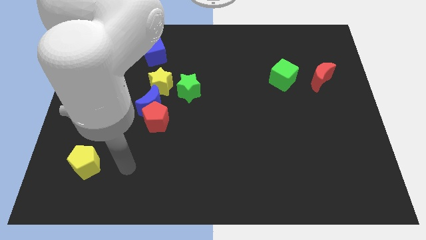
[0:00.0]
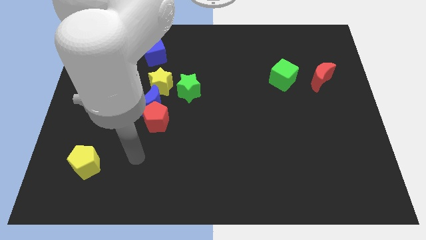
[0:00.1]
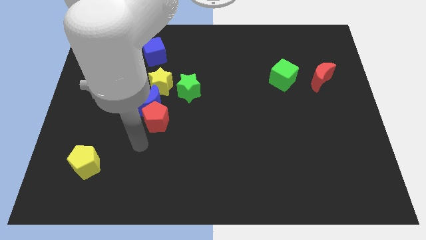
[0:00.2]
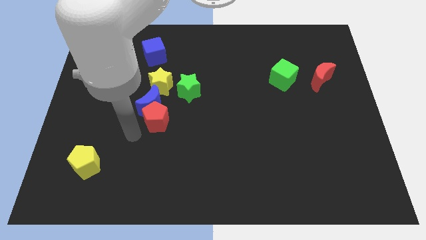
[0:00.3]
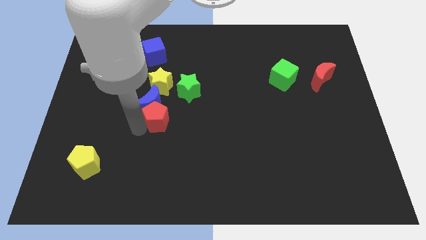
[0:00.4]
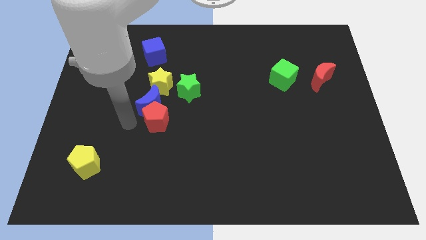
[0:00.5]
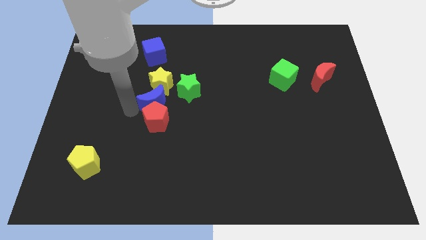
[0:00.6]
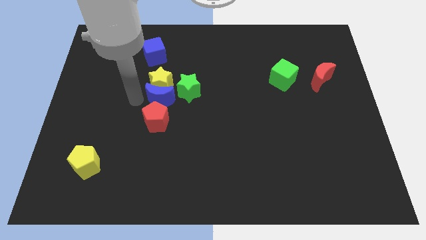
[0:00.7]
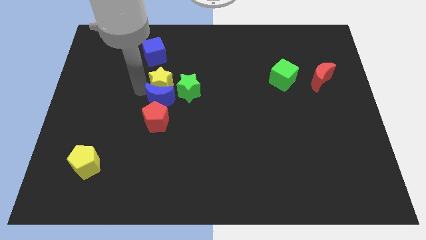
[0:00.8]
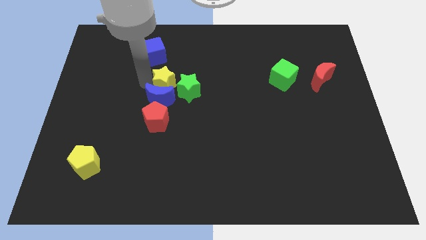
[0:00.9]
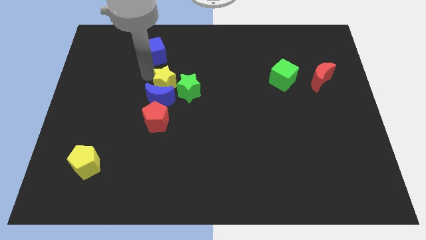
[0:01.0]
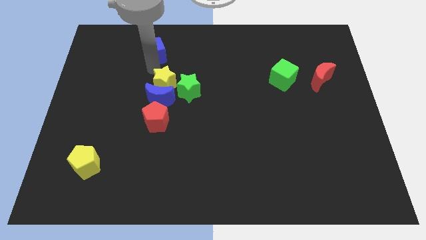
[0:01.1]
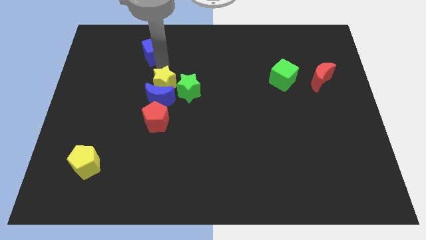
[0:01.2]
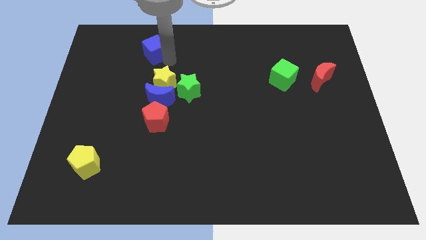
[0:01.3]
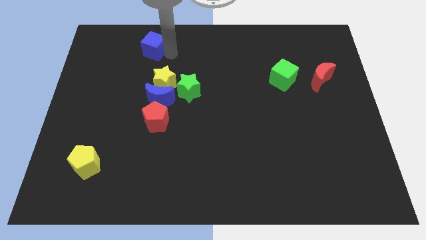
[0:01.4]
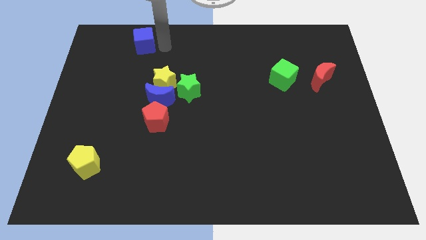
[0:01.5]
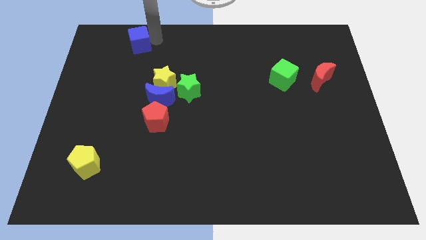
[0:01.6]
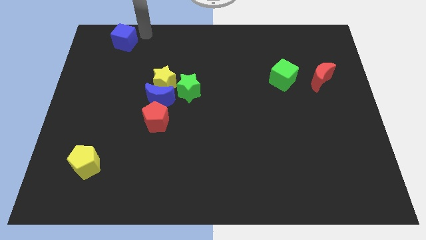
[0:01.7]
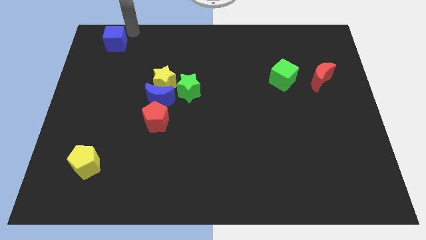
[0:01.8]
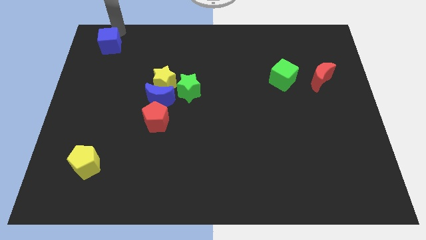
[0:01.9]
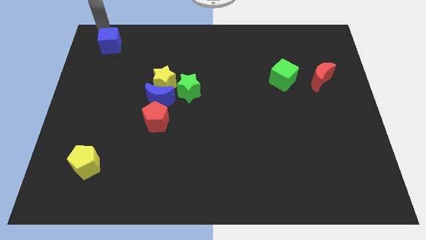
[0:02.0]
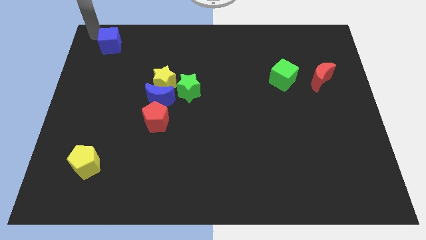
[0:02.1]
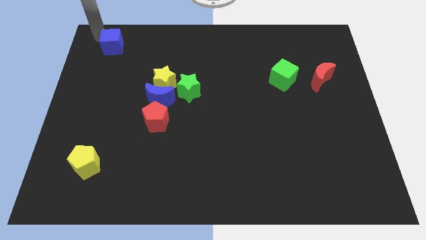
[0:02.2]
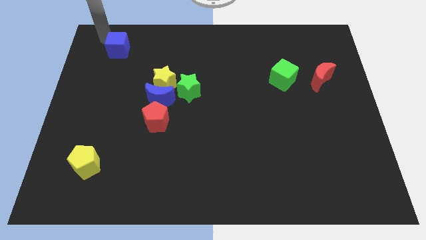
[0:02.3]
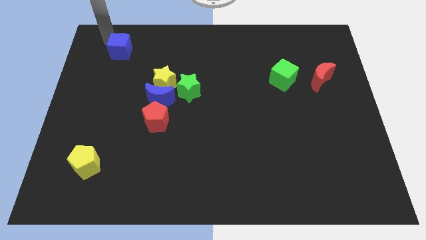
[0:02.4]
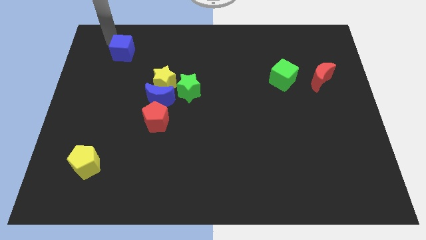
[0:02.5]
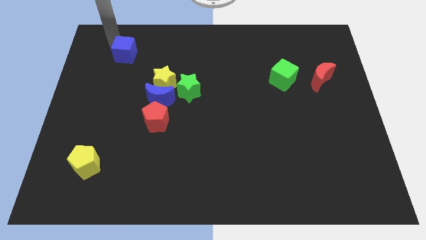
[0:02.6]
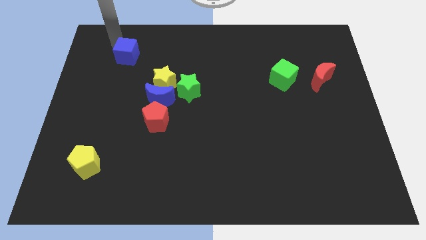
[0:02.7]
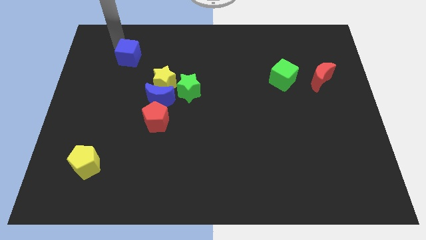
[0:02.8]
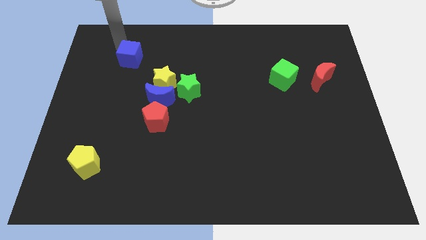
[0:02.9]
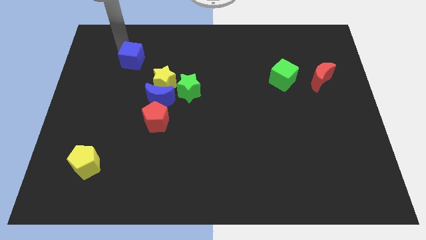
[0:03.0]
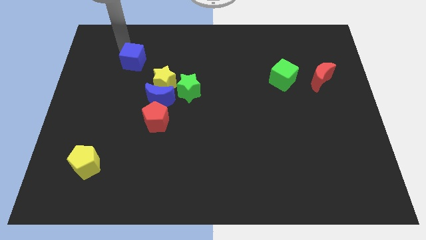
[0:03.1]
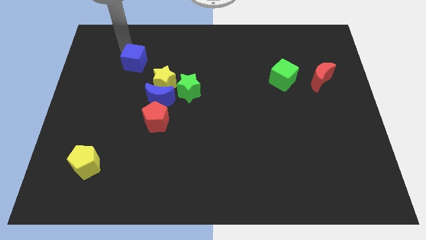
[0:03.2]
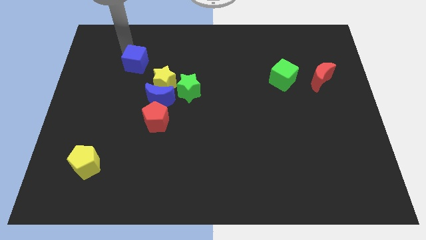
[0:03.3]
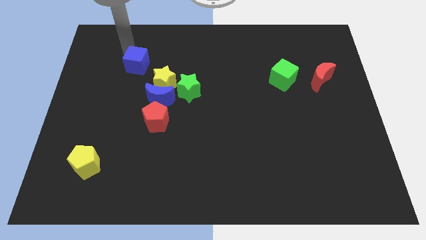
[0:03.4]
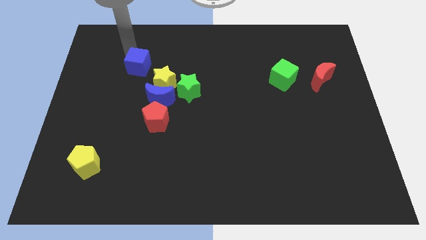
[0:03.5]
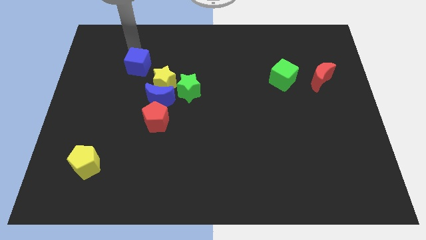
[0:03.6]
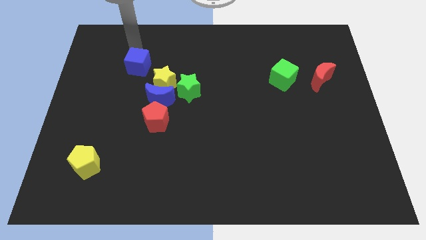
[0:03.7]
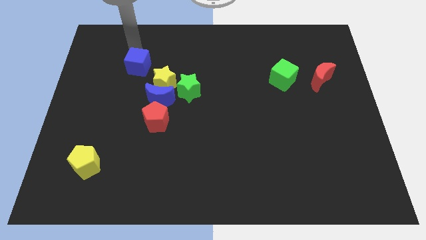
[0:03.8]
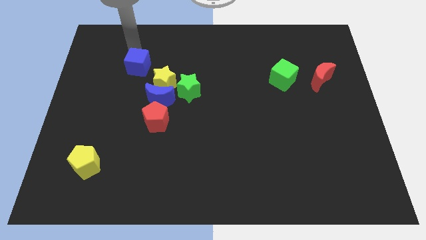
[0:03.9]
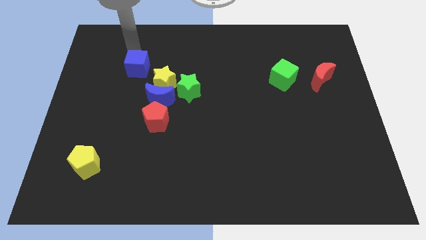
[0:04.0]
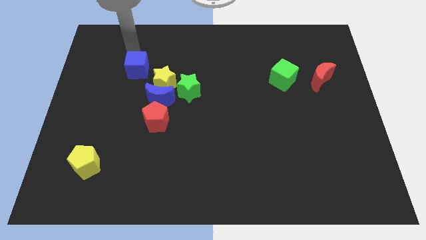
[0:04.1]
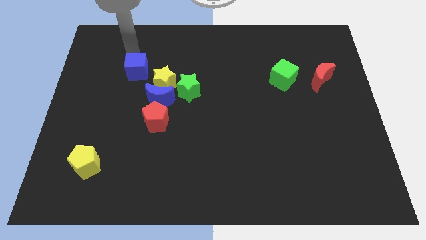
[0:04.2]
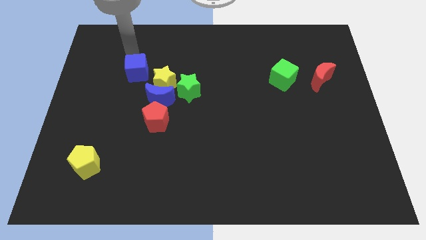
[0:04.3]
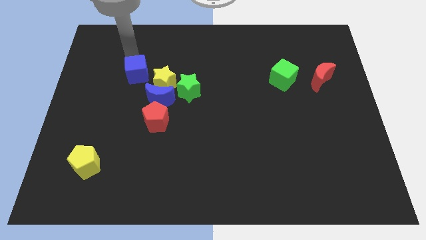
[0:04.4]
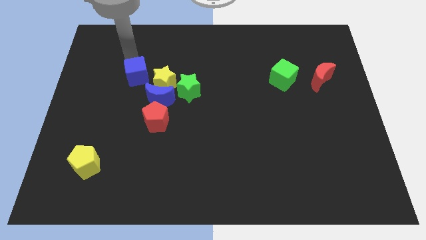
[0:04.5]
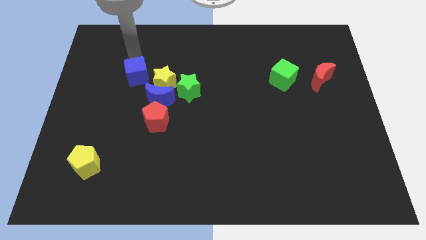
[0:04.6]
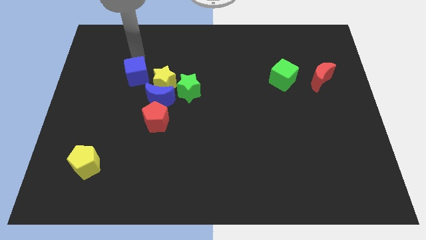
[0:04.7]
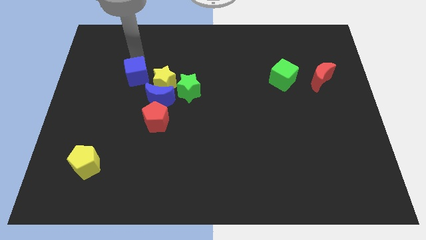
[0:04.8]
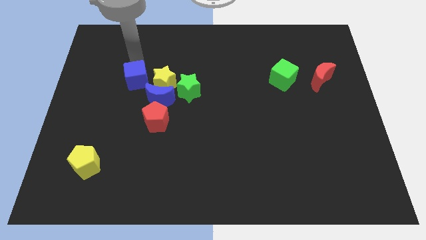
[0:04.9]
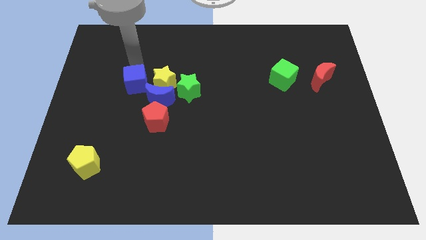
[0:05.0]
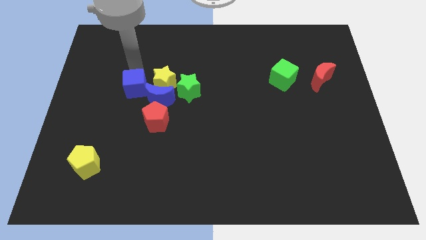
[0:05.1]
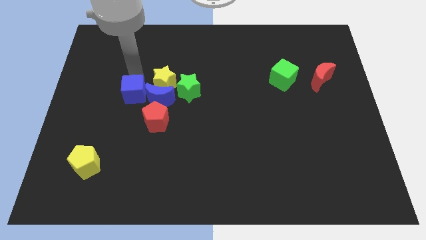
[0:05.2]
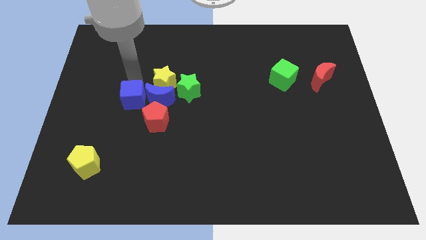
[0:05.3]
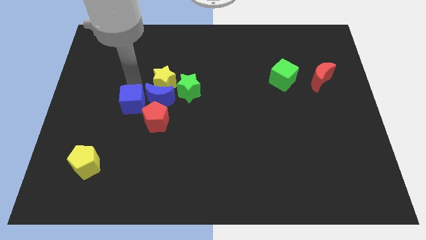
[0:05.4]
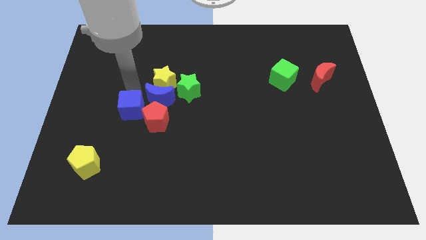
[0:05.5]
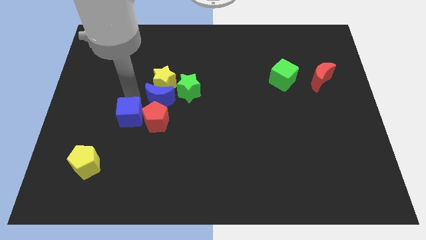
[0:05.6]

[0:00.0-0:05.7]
slide the blue cube next to the red pentagon
